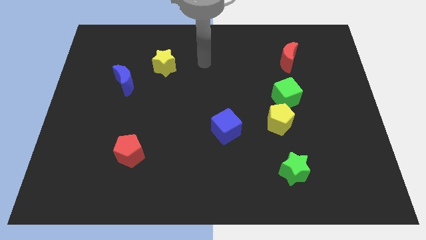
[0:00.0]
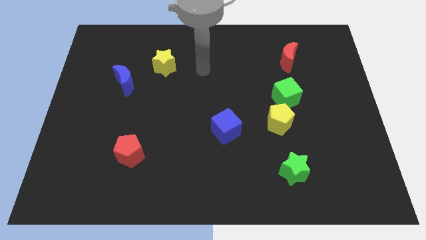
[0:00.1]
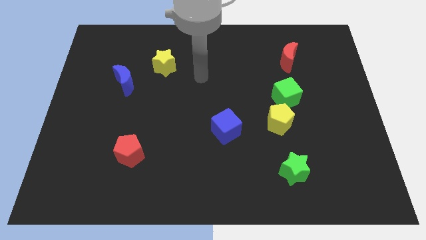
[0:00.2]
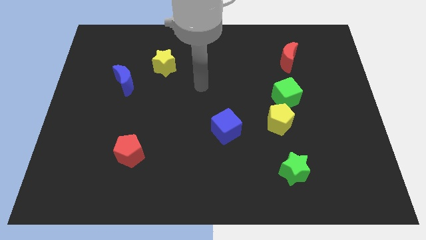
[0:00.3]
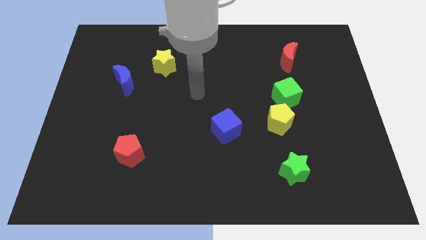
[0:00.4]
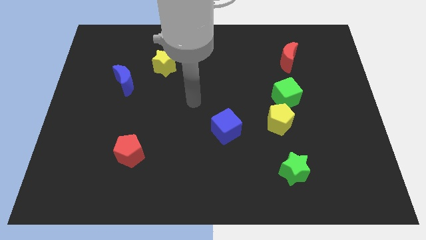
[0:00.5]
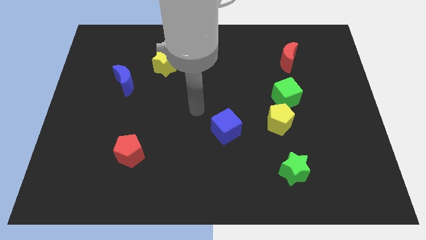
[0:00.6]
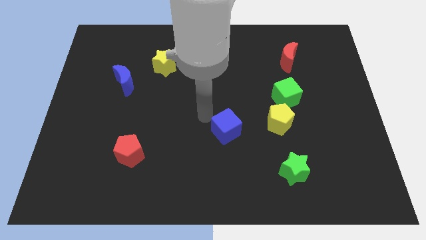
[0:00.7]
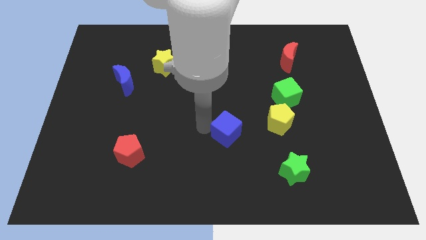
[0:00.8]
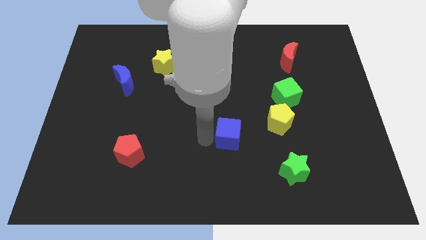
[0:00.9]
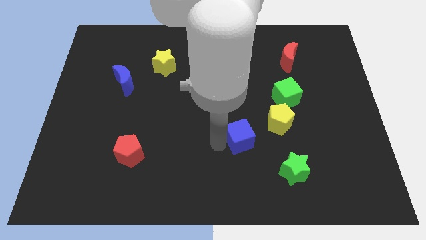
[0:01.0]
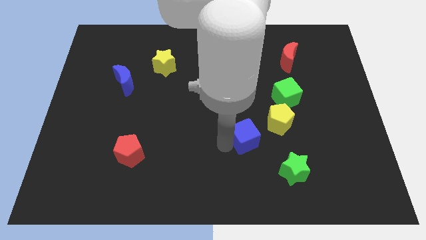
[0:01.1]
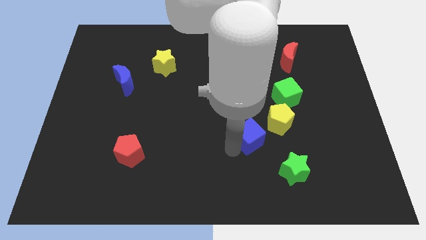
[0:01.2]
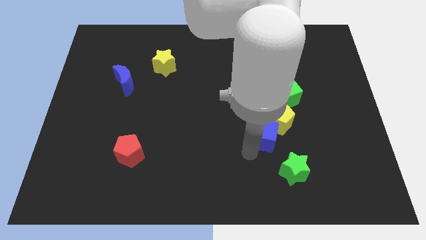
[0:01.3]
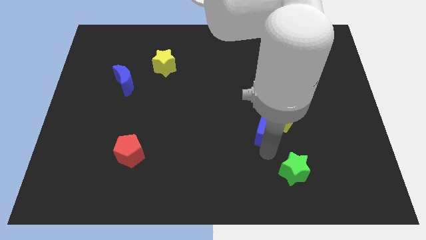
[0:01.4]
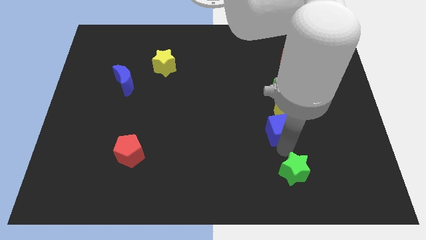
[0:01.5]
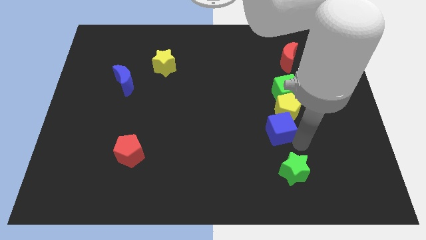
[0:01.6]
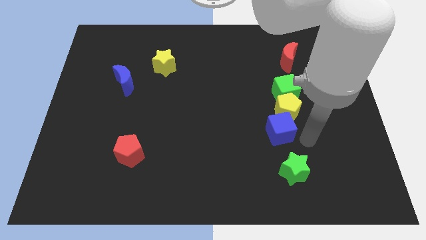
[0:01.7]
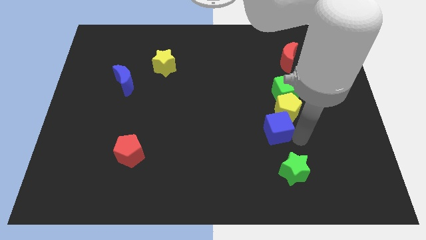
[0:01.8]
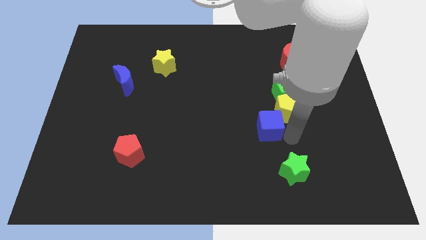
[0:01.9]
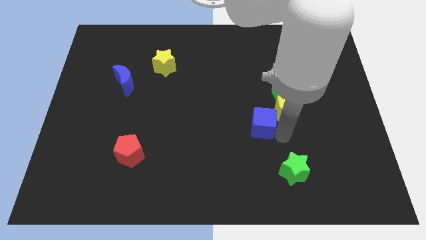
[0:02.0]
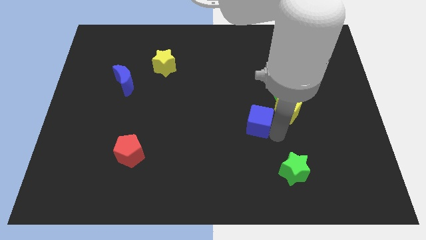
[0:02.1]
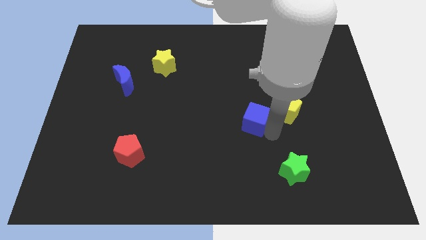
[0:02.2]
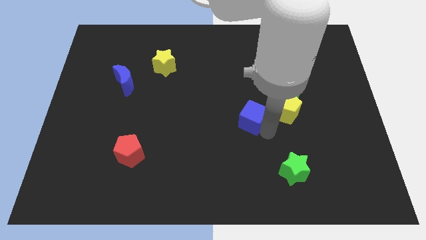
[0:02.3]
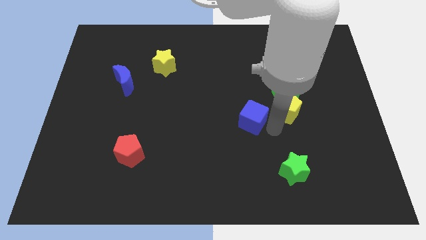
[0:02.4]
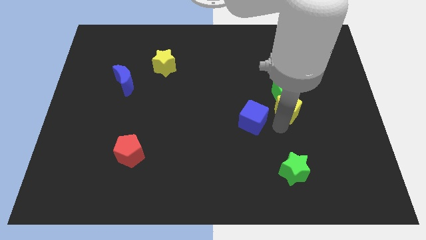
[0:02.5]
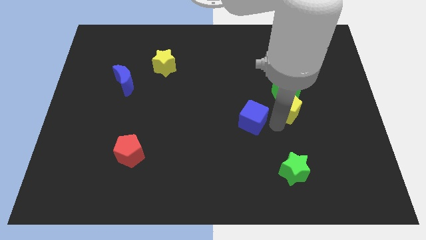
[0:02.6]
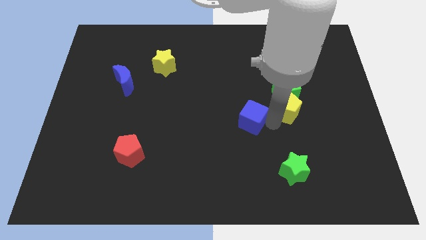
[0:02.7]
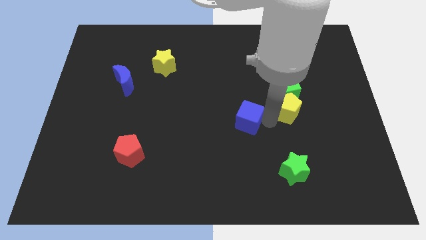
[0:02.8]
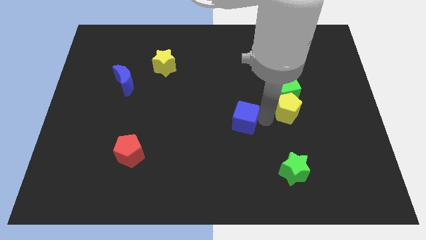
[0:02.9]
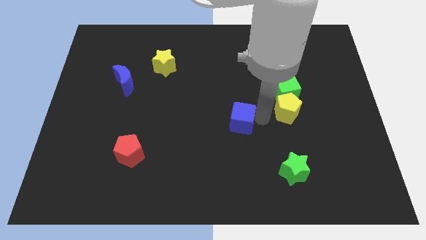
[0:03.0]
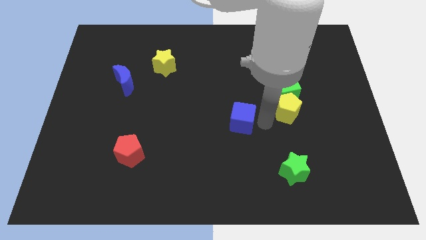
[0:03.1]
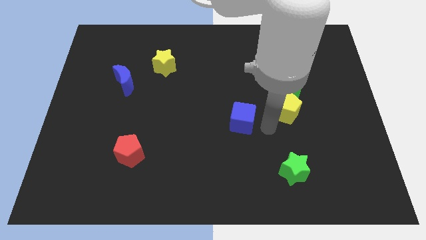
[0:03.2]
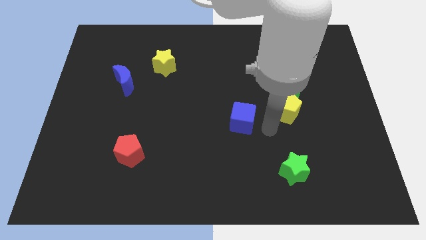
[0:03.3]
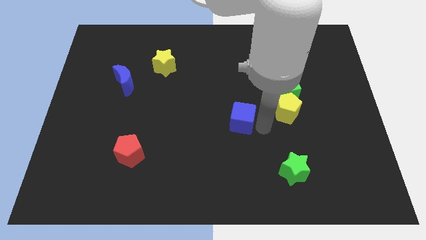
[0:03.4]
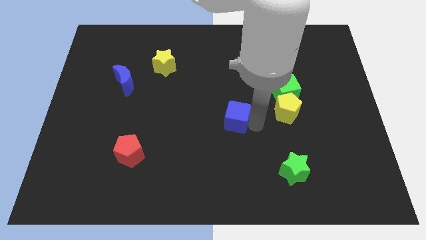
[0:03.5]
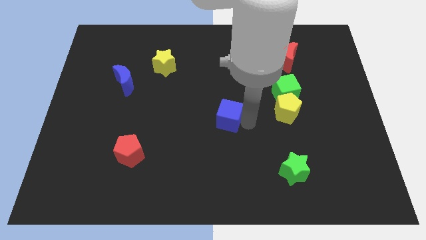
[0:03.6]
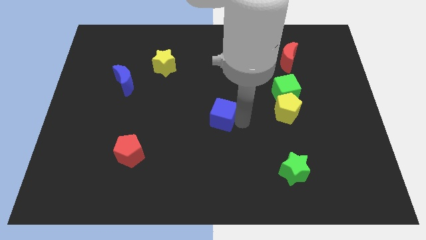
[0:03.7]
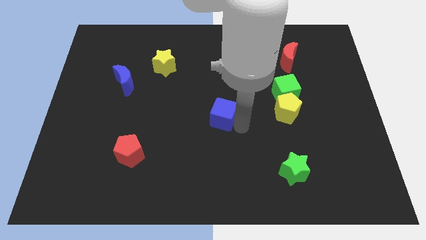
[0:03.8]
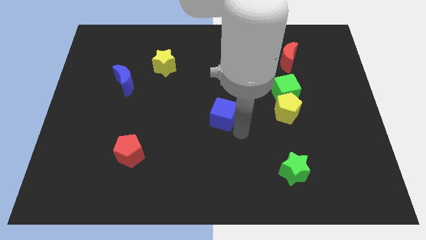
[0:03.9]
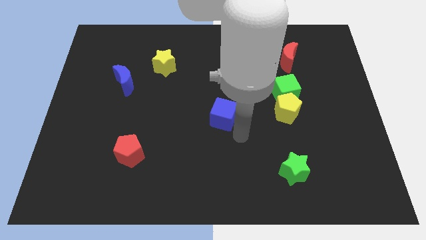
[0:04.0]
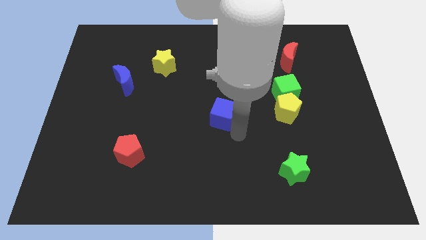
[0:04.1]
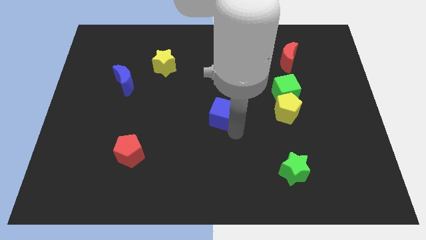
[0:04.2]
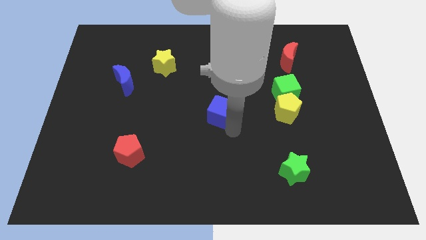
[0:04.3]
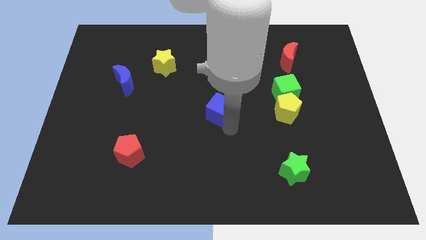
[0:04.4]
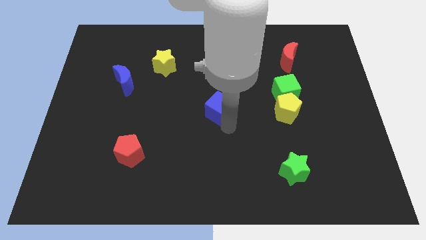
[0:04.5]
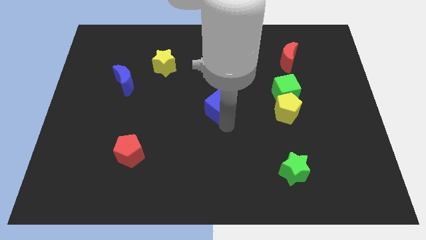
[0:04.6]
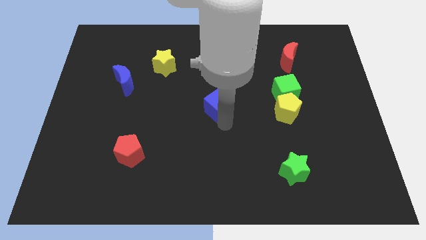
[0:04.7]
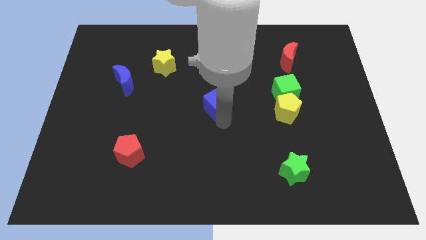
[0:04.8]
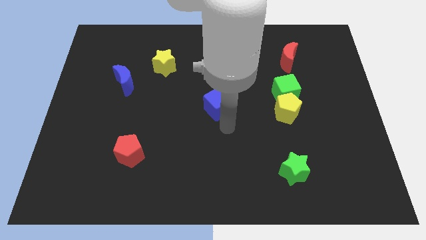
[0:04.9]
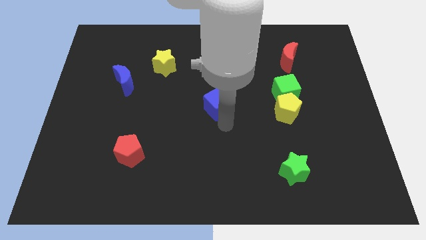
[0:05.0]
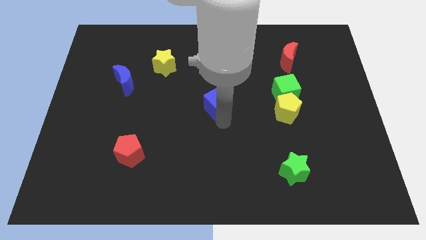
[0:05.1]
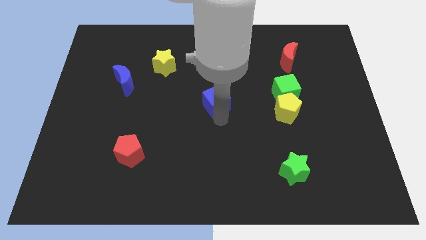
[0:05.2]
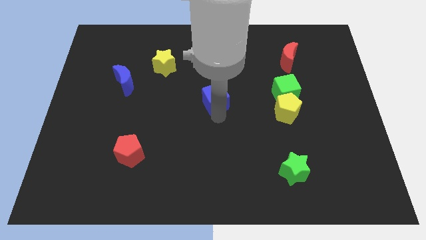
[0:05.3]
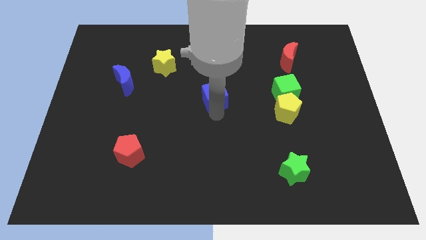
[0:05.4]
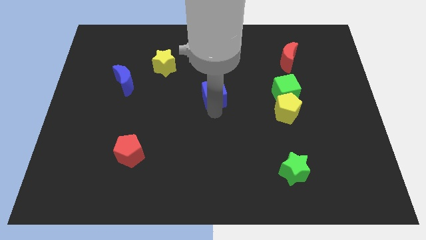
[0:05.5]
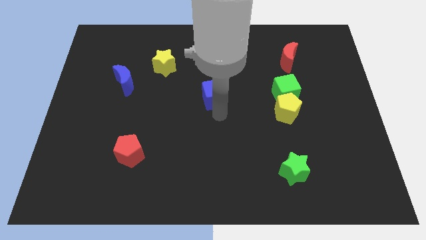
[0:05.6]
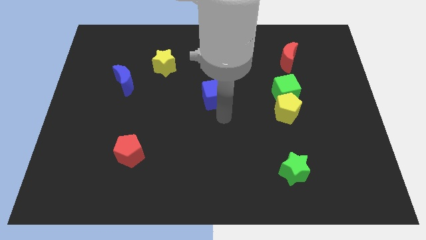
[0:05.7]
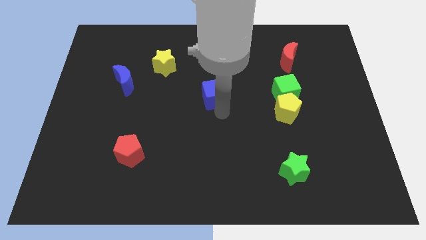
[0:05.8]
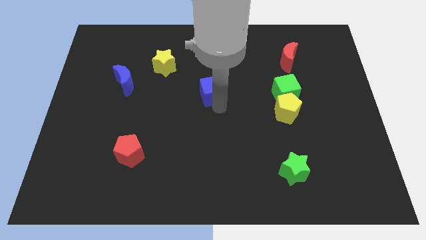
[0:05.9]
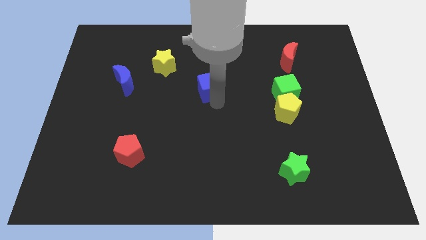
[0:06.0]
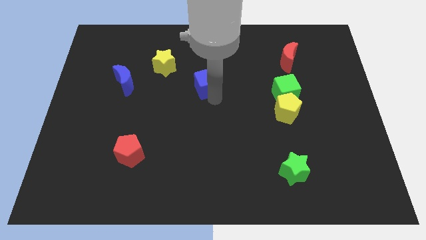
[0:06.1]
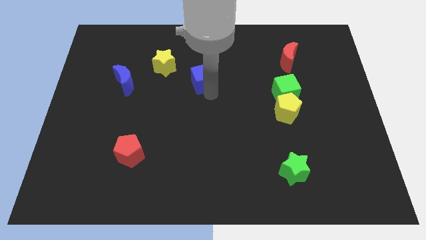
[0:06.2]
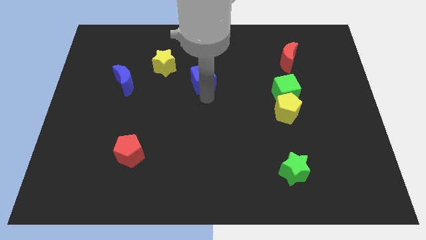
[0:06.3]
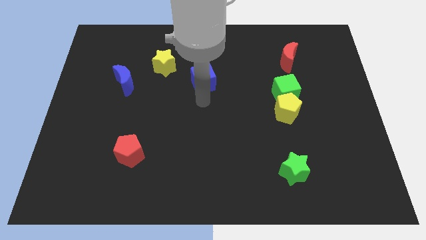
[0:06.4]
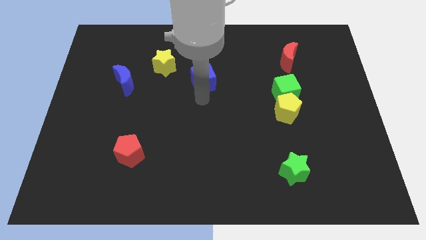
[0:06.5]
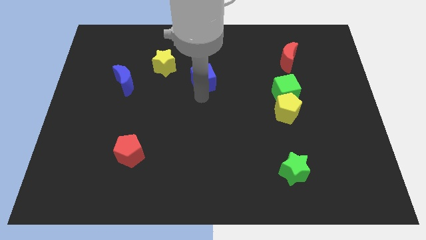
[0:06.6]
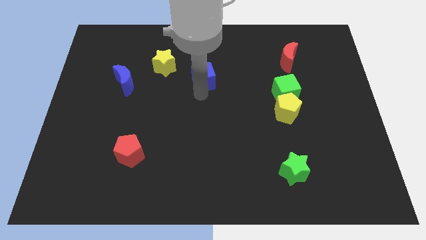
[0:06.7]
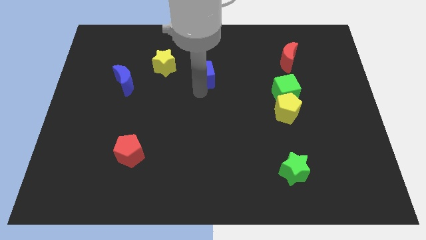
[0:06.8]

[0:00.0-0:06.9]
put the blue cube right of the yellow star

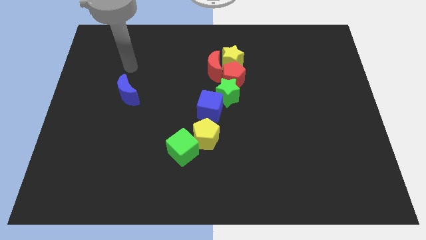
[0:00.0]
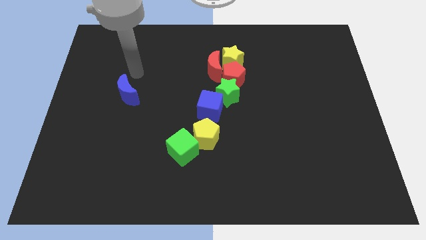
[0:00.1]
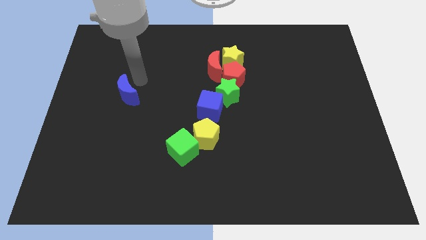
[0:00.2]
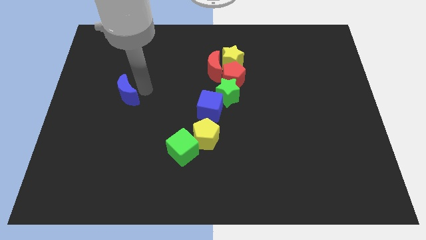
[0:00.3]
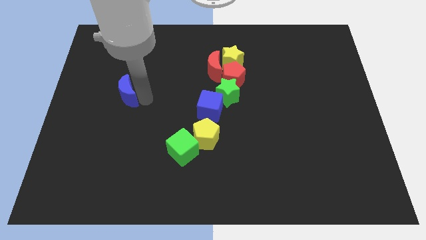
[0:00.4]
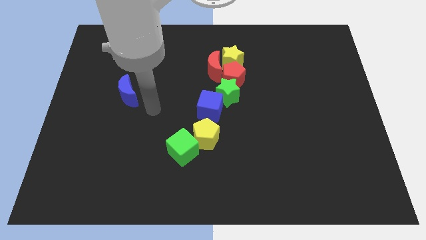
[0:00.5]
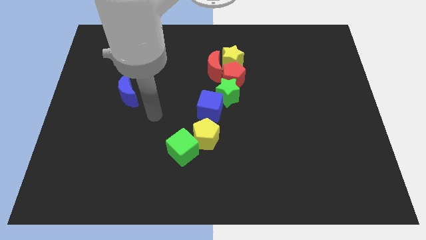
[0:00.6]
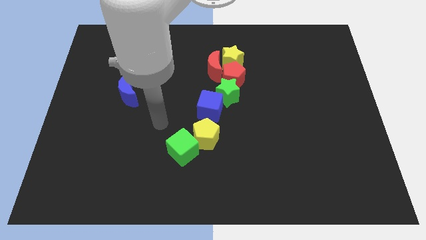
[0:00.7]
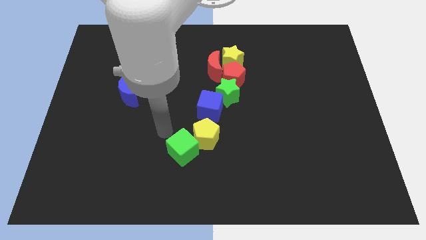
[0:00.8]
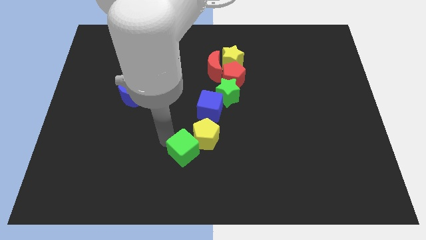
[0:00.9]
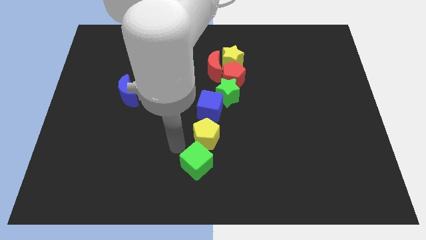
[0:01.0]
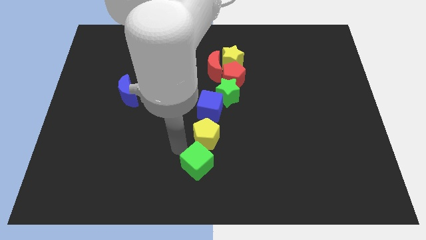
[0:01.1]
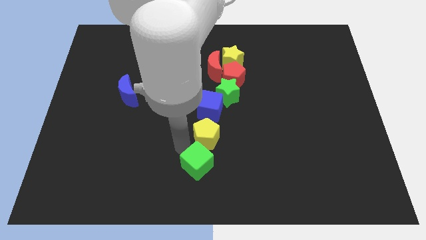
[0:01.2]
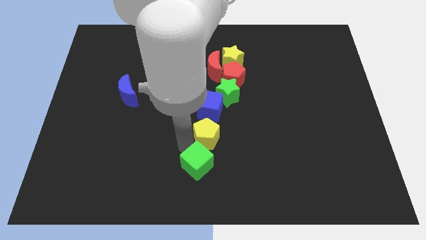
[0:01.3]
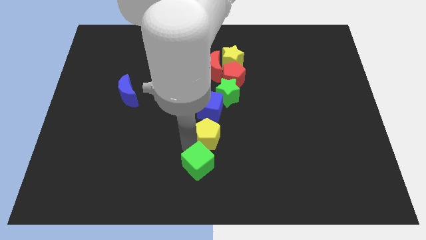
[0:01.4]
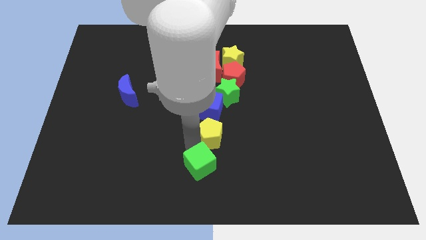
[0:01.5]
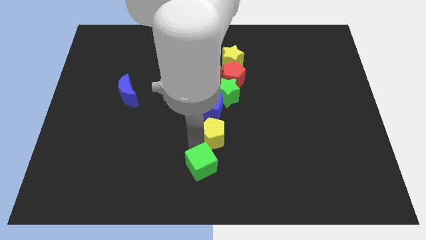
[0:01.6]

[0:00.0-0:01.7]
push the yellow pentagon diagonally down and to the right of the blue cube
